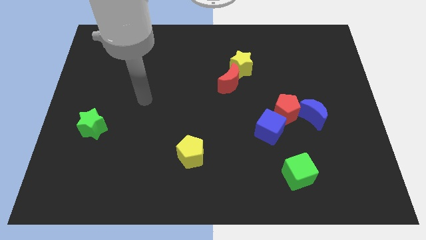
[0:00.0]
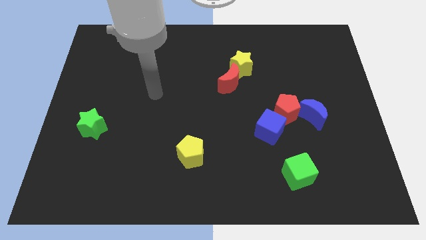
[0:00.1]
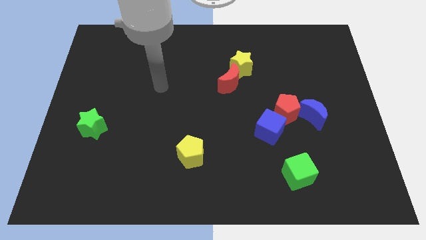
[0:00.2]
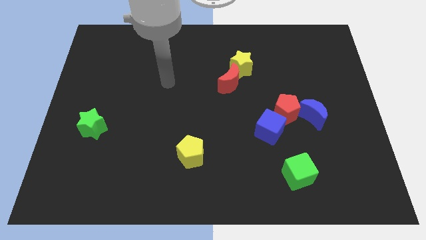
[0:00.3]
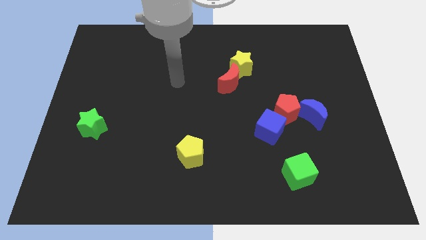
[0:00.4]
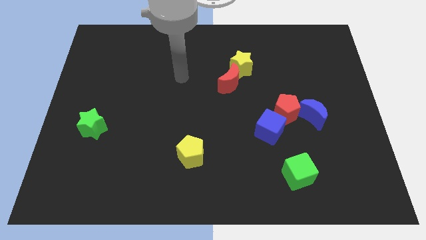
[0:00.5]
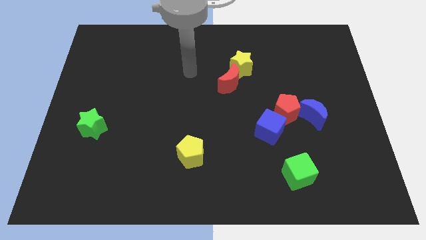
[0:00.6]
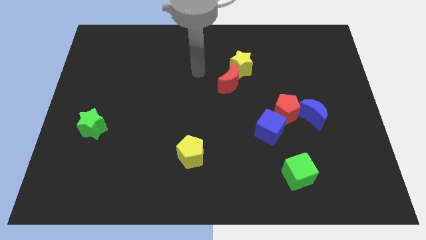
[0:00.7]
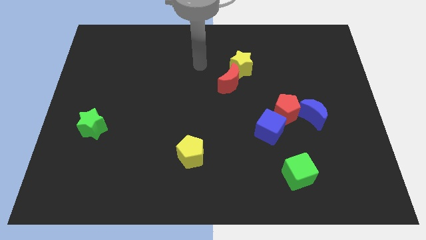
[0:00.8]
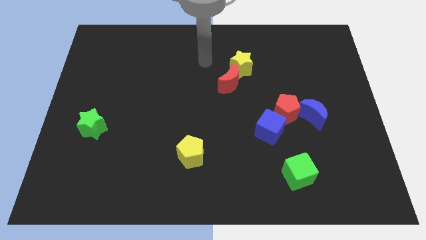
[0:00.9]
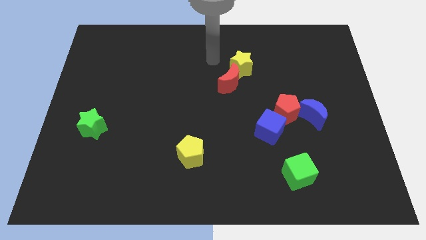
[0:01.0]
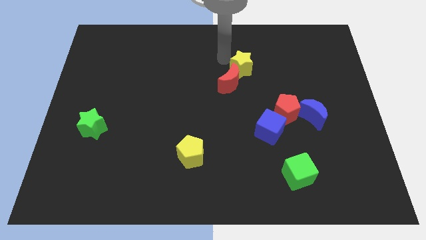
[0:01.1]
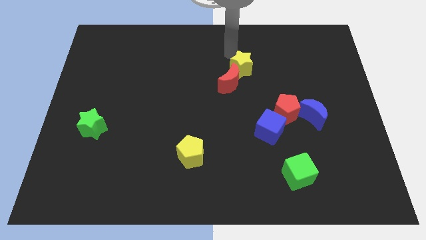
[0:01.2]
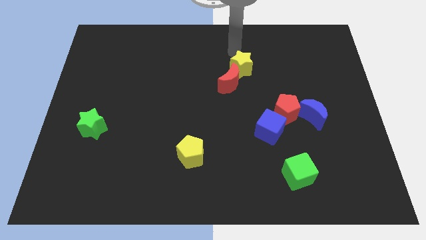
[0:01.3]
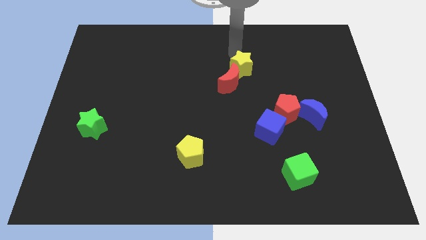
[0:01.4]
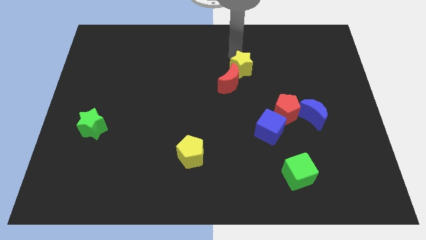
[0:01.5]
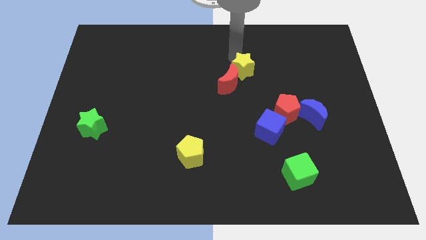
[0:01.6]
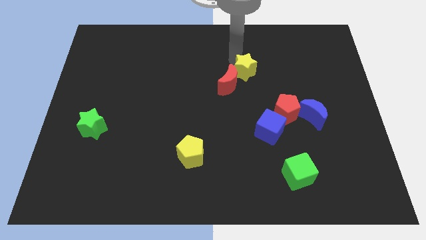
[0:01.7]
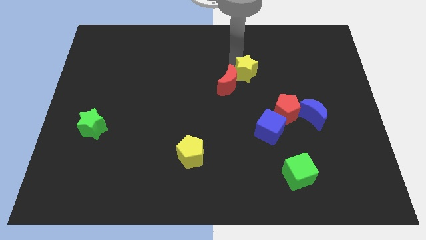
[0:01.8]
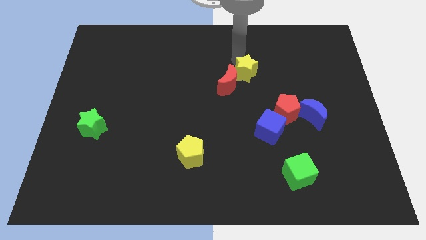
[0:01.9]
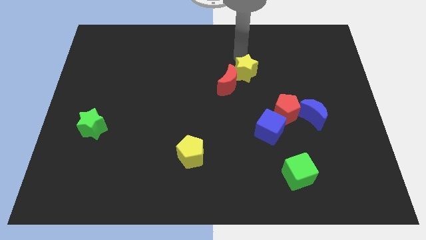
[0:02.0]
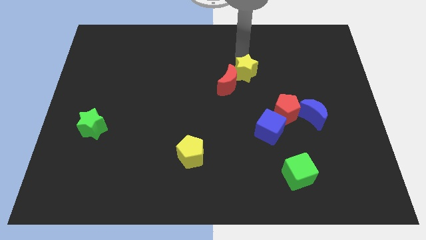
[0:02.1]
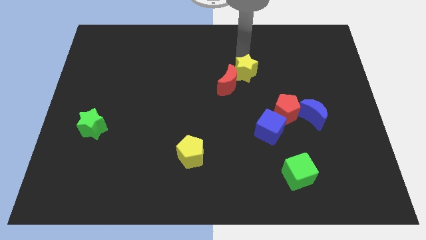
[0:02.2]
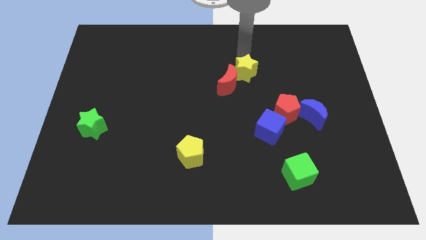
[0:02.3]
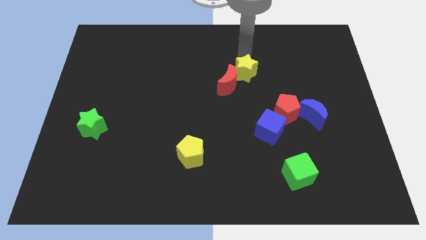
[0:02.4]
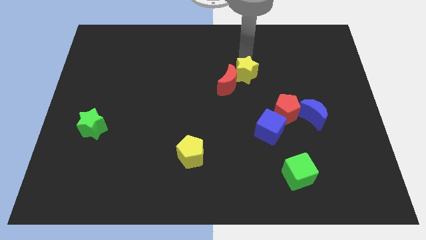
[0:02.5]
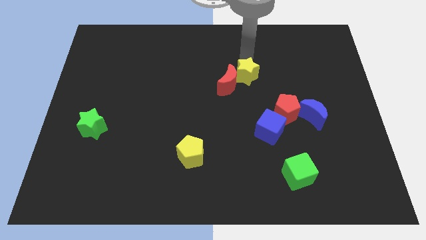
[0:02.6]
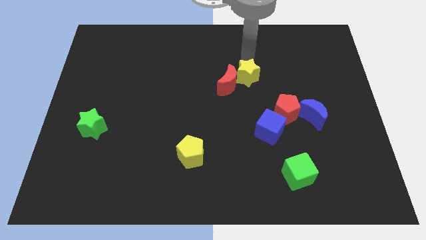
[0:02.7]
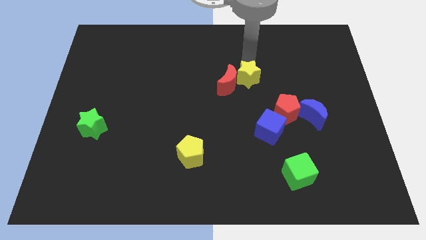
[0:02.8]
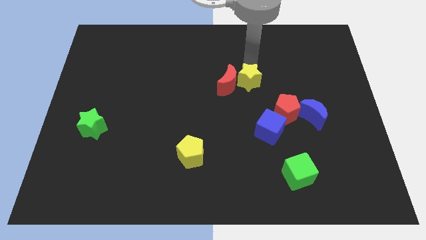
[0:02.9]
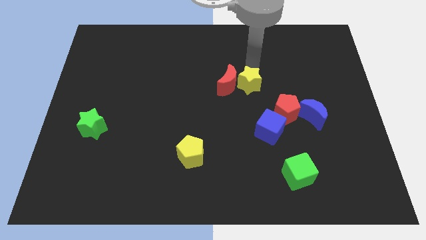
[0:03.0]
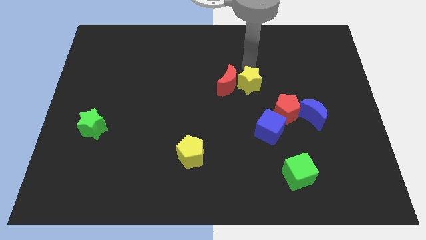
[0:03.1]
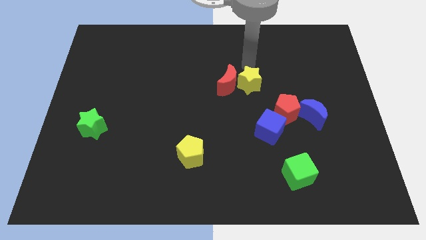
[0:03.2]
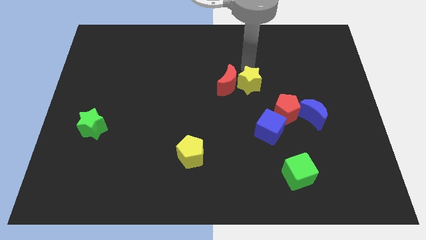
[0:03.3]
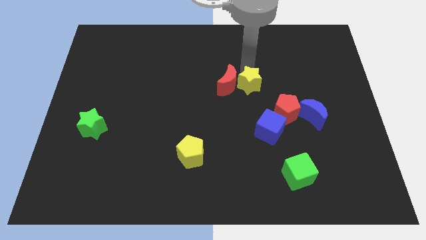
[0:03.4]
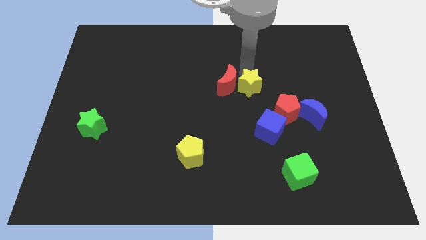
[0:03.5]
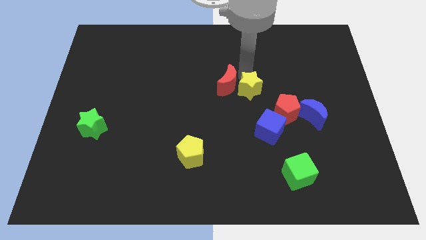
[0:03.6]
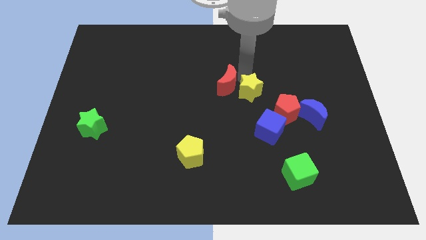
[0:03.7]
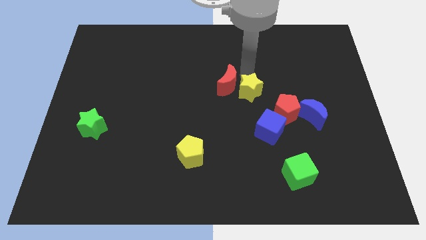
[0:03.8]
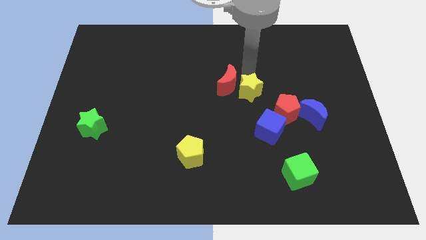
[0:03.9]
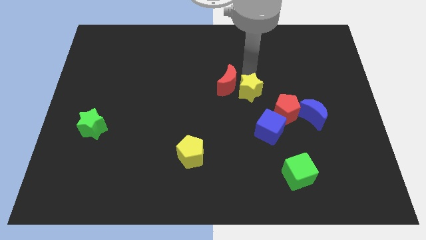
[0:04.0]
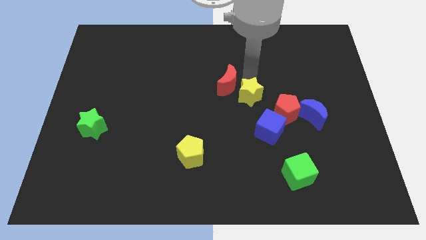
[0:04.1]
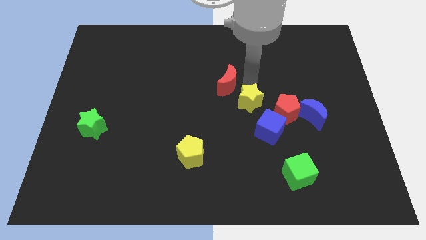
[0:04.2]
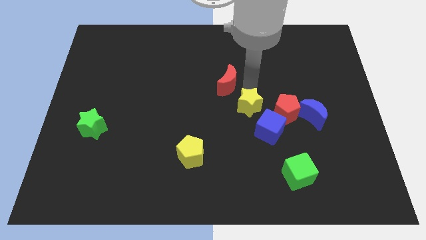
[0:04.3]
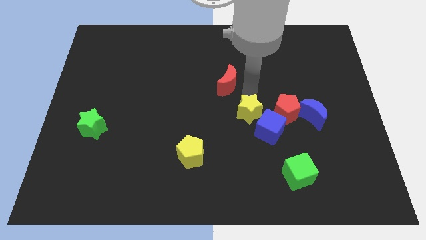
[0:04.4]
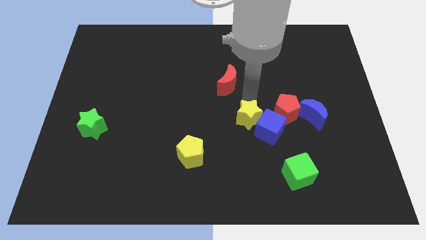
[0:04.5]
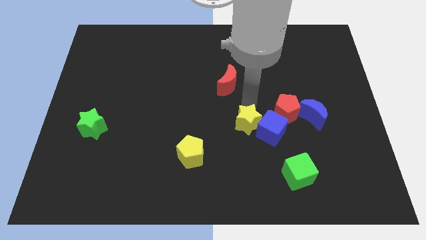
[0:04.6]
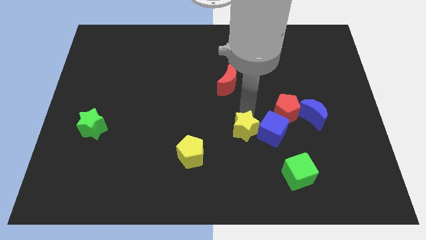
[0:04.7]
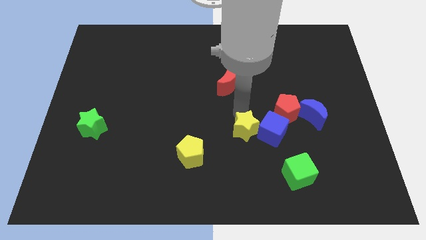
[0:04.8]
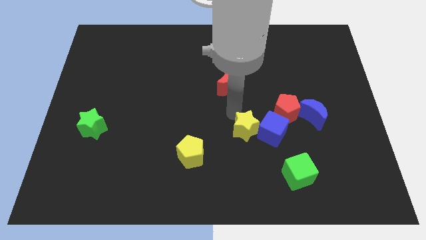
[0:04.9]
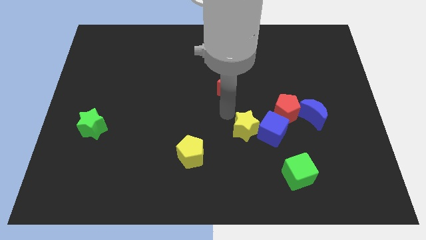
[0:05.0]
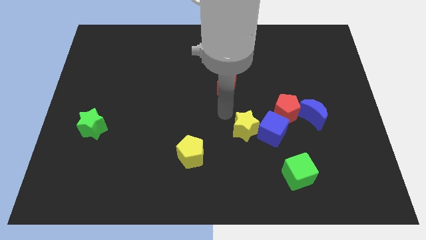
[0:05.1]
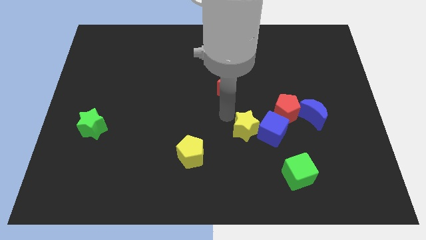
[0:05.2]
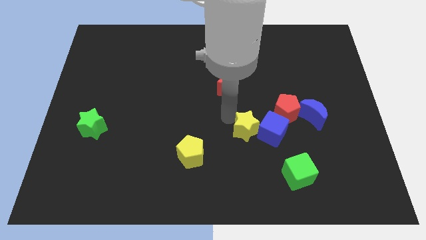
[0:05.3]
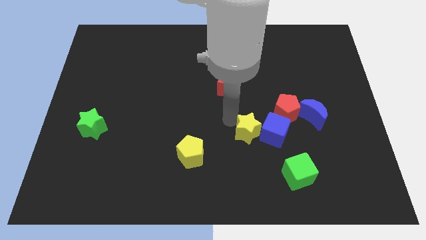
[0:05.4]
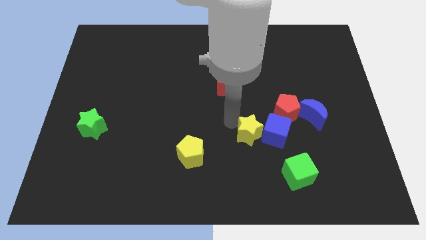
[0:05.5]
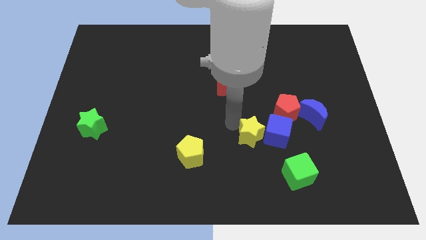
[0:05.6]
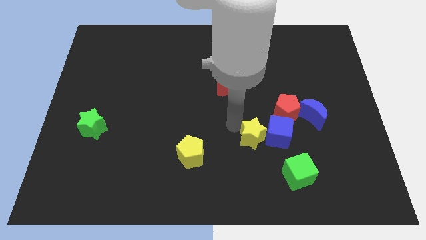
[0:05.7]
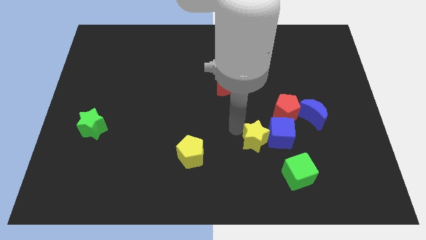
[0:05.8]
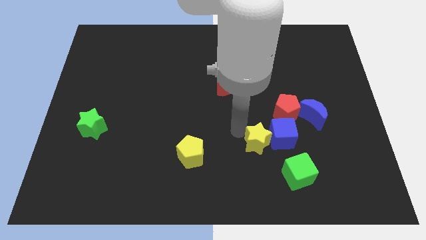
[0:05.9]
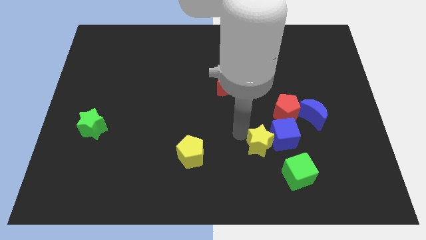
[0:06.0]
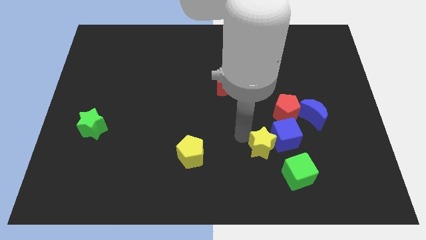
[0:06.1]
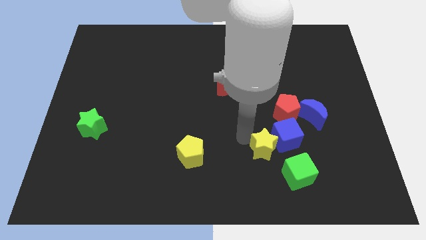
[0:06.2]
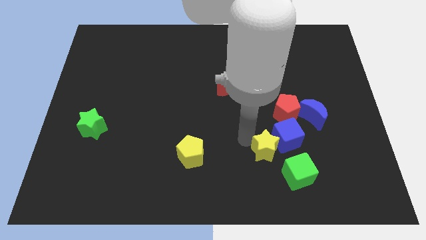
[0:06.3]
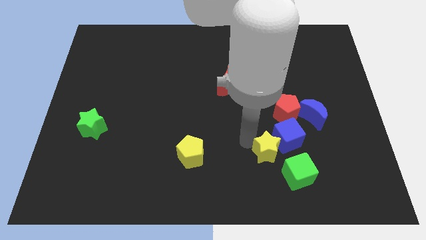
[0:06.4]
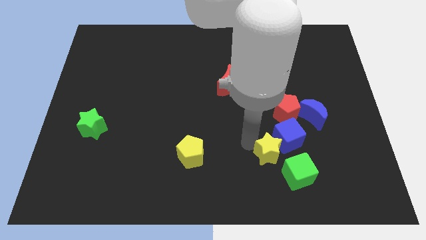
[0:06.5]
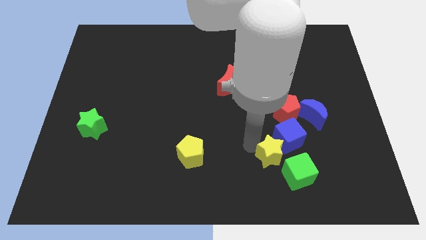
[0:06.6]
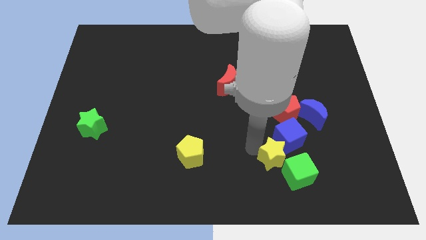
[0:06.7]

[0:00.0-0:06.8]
put the yellow star to the green cube
